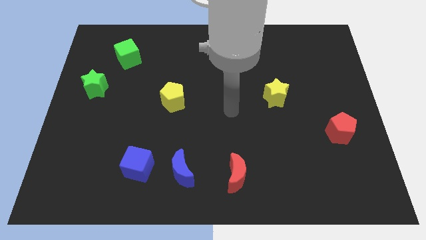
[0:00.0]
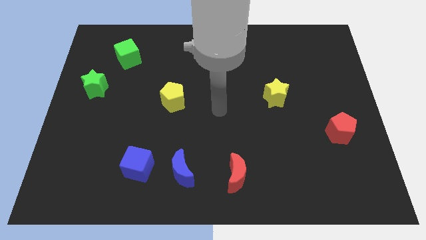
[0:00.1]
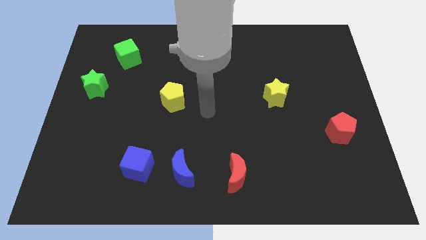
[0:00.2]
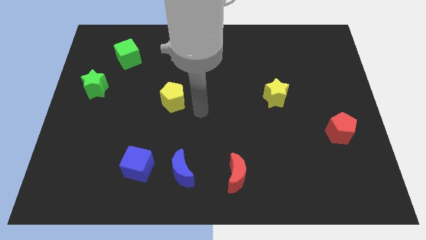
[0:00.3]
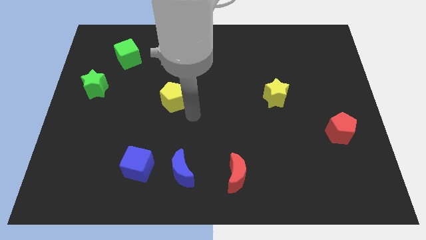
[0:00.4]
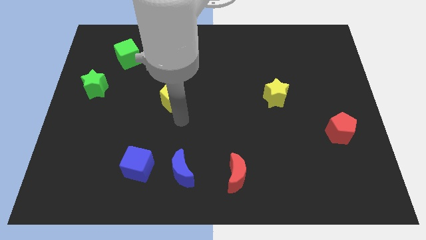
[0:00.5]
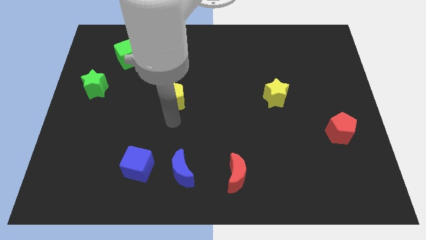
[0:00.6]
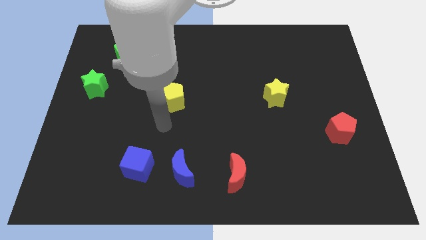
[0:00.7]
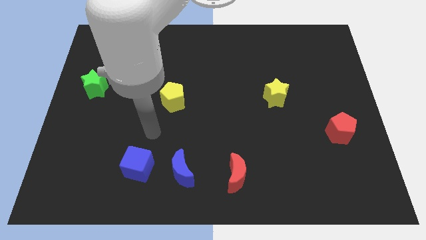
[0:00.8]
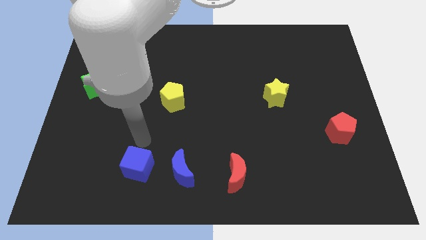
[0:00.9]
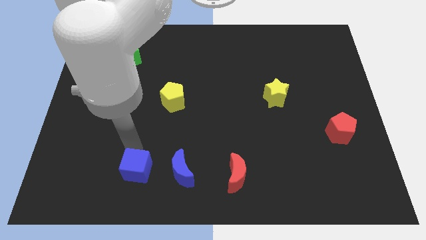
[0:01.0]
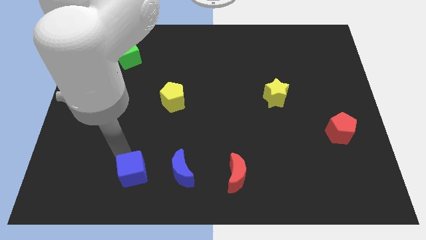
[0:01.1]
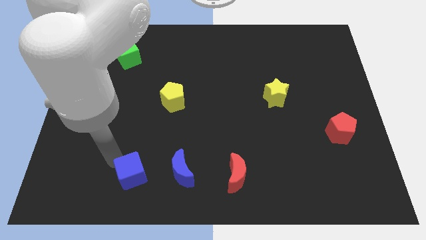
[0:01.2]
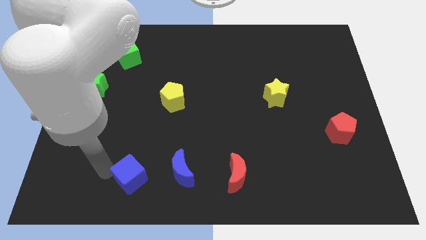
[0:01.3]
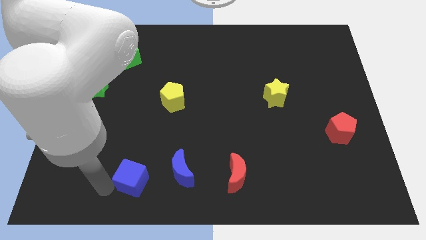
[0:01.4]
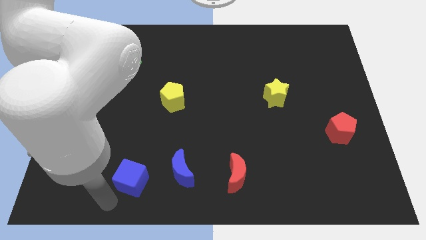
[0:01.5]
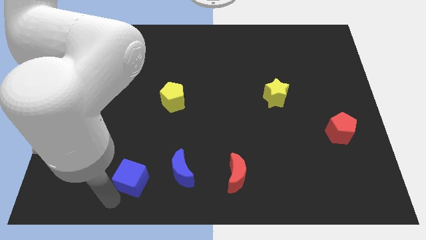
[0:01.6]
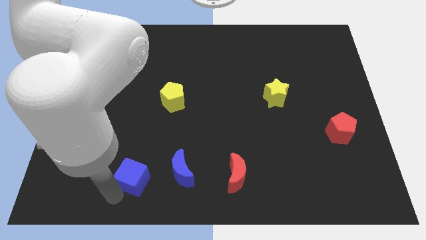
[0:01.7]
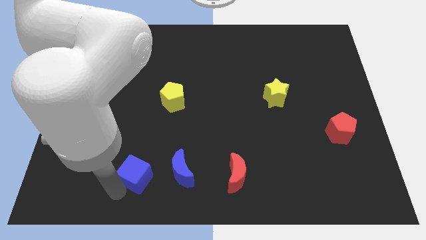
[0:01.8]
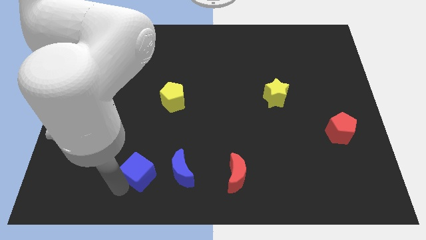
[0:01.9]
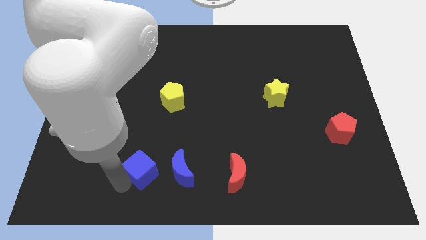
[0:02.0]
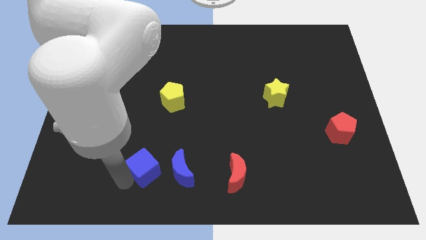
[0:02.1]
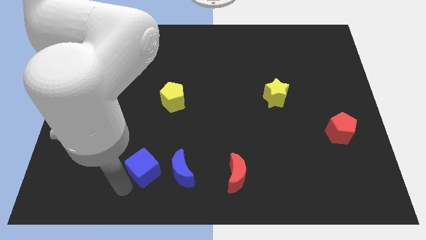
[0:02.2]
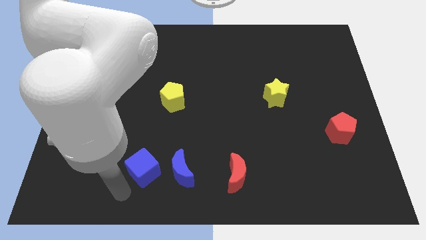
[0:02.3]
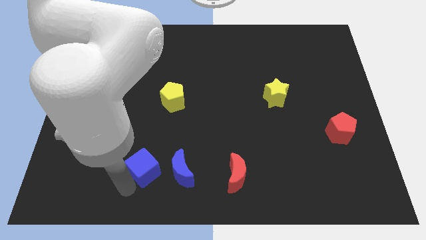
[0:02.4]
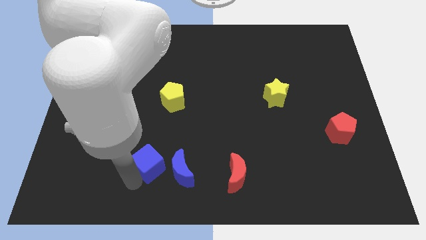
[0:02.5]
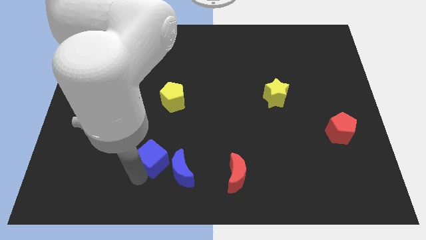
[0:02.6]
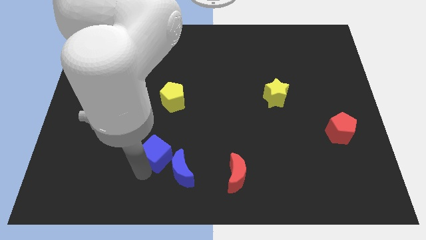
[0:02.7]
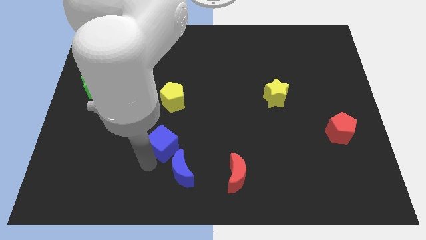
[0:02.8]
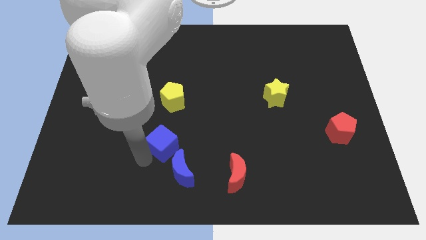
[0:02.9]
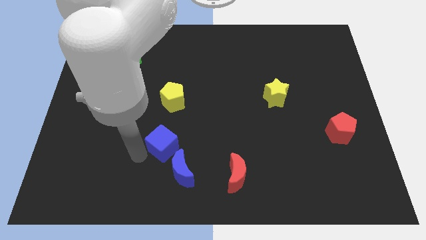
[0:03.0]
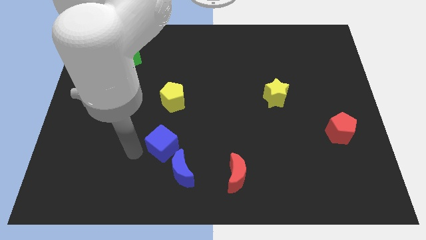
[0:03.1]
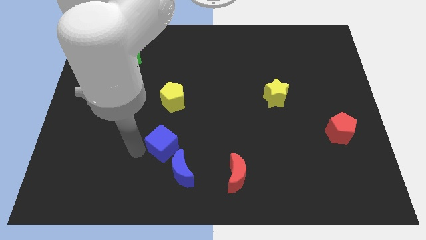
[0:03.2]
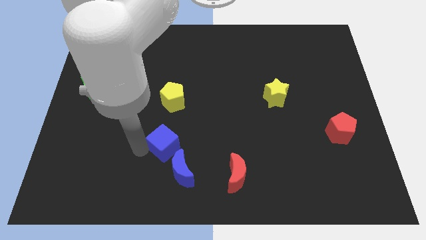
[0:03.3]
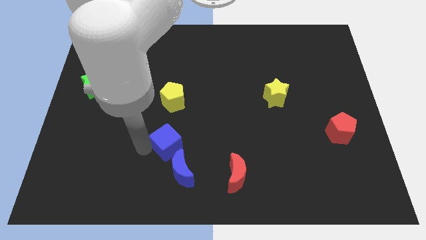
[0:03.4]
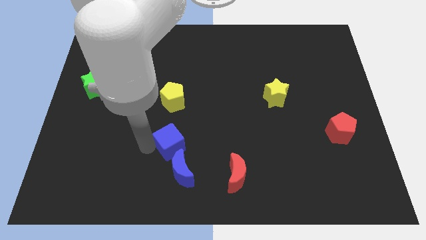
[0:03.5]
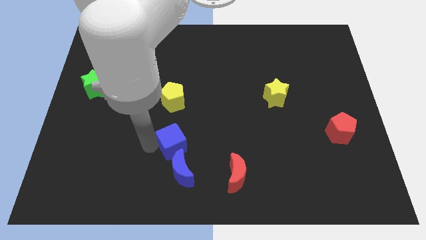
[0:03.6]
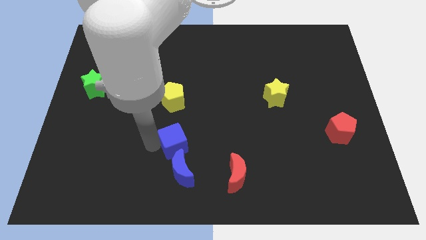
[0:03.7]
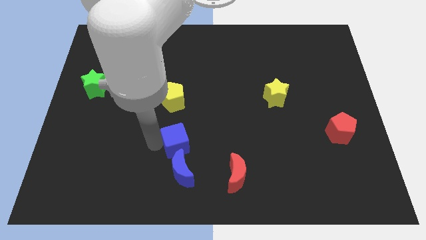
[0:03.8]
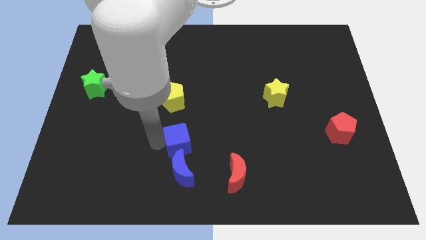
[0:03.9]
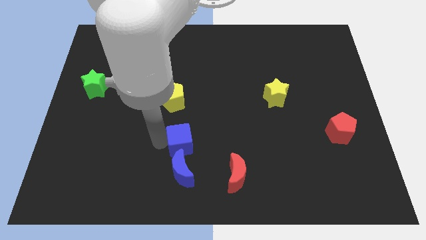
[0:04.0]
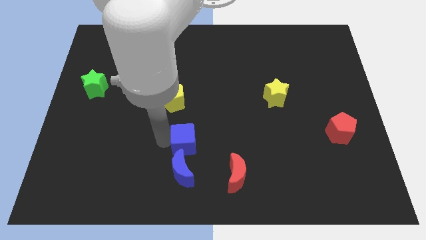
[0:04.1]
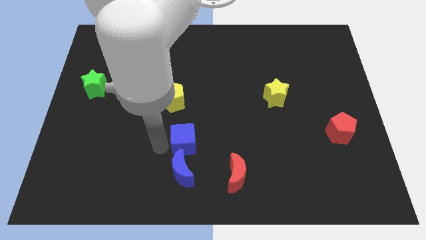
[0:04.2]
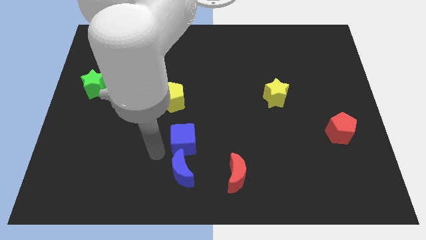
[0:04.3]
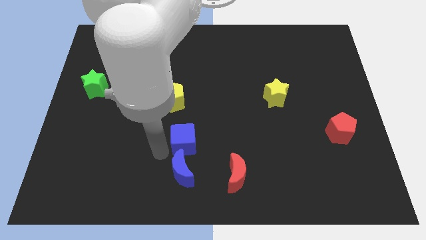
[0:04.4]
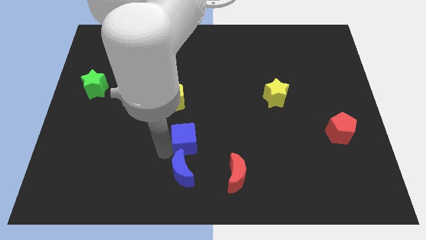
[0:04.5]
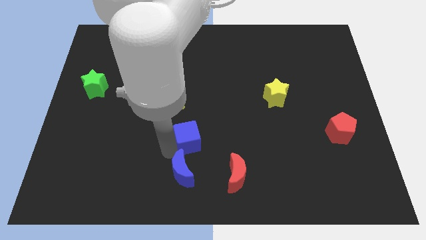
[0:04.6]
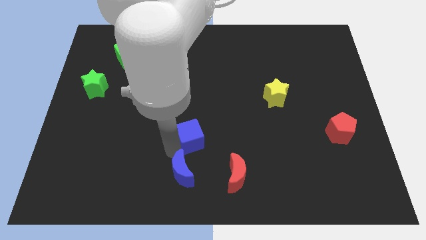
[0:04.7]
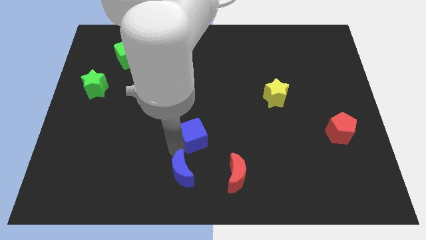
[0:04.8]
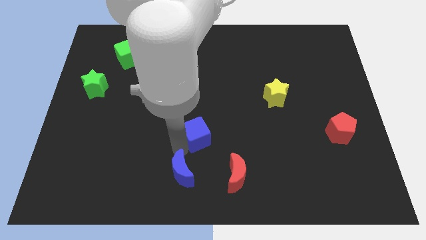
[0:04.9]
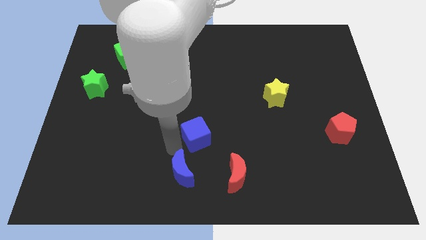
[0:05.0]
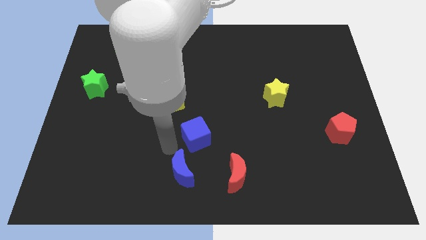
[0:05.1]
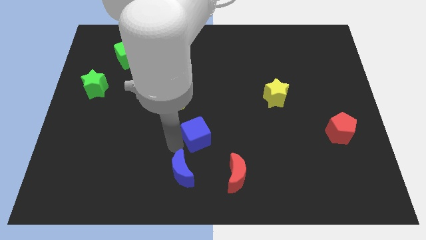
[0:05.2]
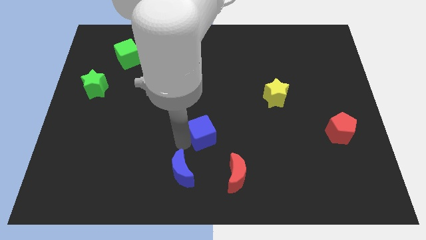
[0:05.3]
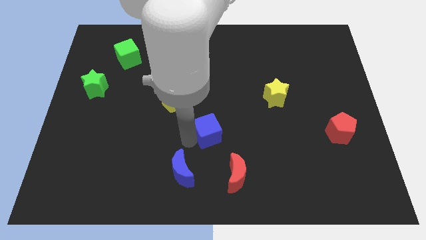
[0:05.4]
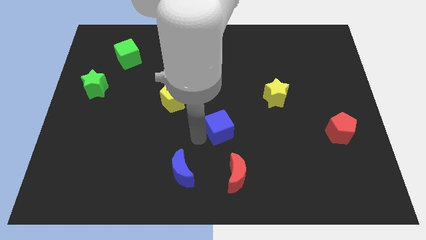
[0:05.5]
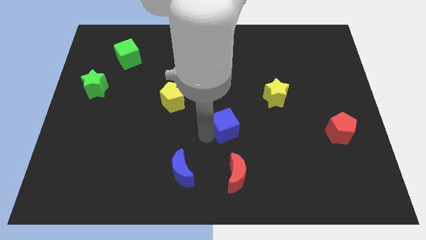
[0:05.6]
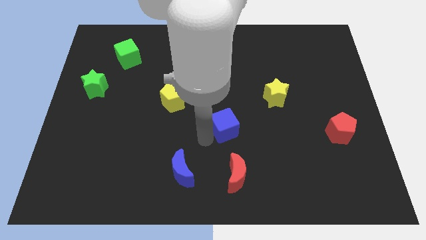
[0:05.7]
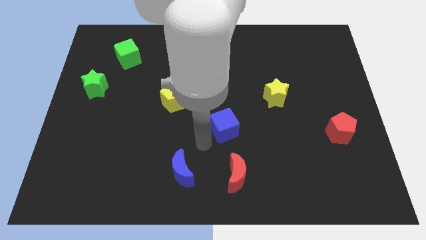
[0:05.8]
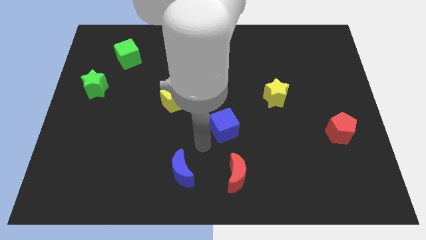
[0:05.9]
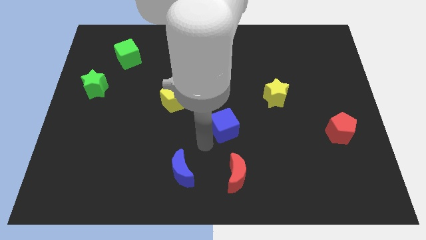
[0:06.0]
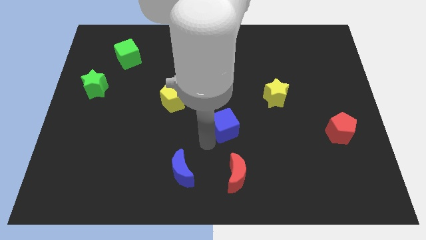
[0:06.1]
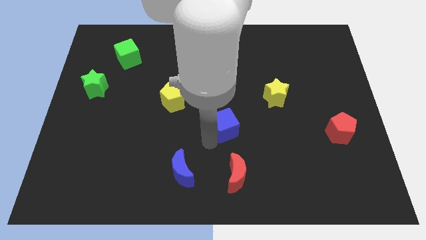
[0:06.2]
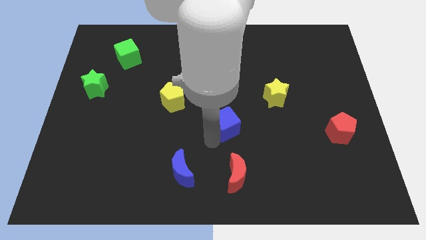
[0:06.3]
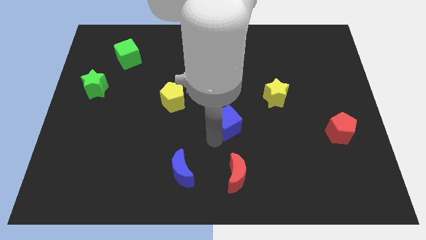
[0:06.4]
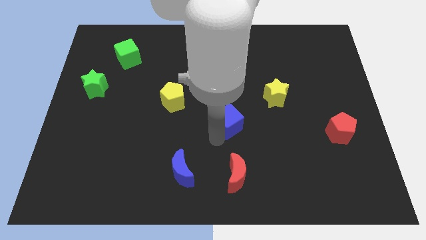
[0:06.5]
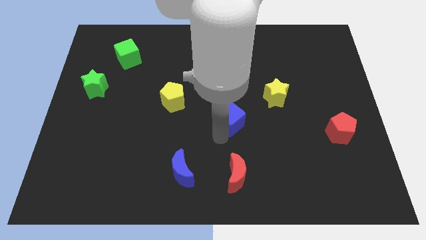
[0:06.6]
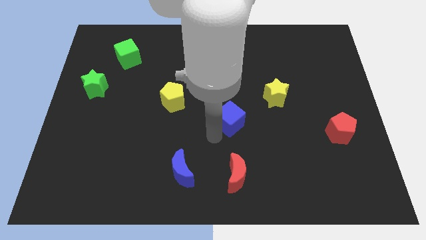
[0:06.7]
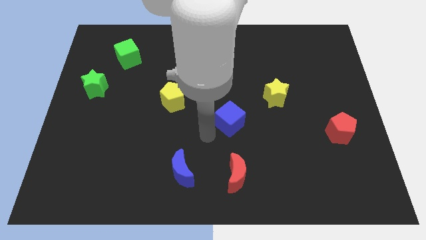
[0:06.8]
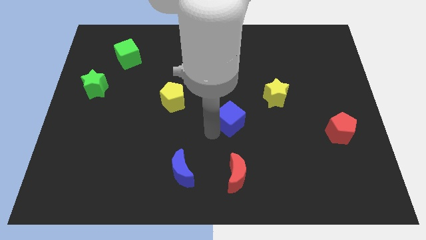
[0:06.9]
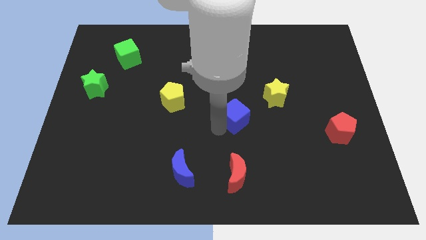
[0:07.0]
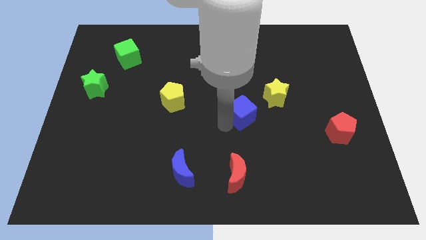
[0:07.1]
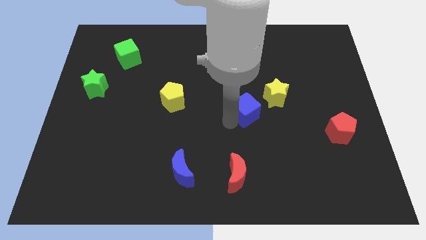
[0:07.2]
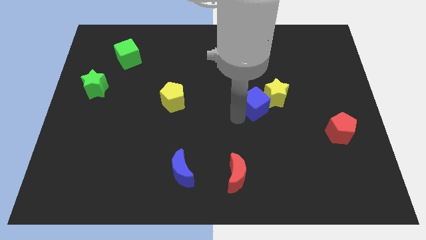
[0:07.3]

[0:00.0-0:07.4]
put the blue cube to the yellow star

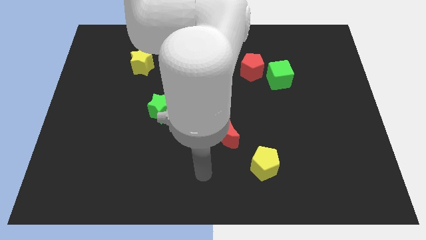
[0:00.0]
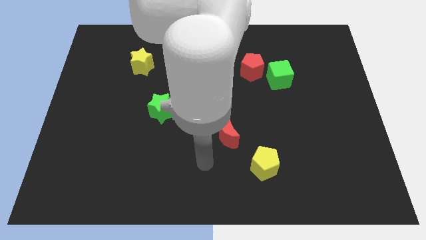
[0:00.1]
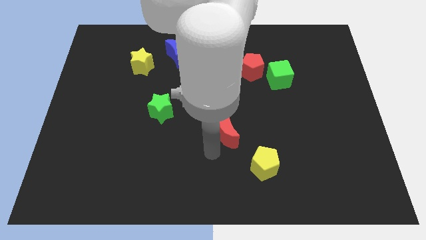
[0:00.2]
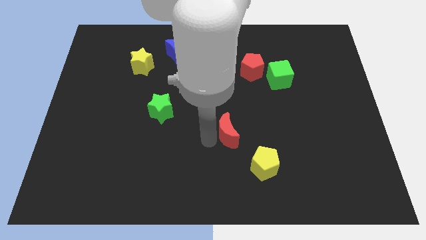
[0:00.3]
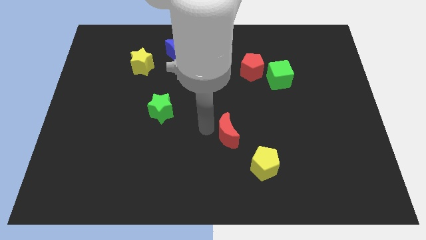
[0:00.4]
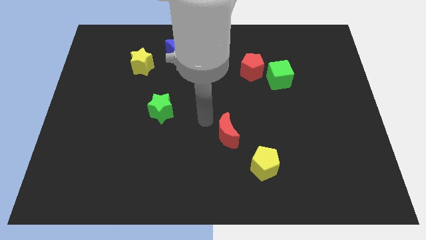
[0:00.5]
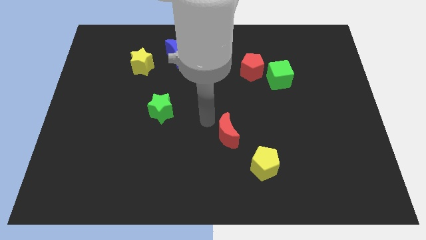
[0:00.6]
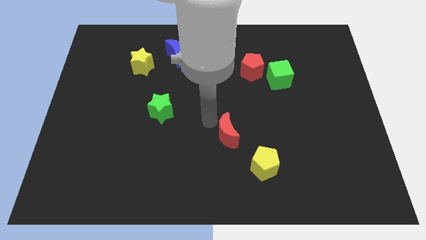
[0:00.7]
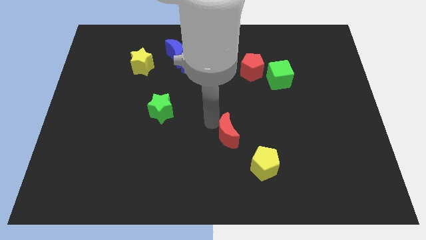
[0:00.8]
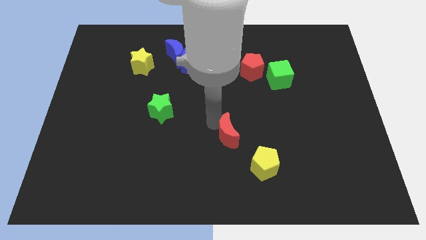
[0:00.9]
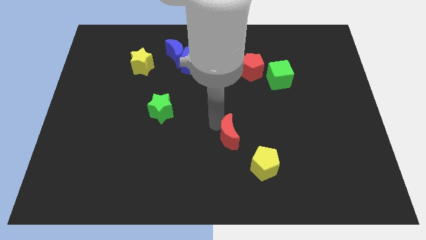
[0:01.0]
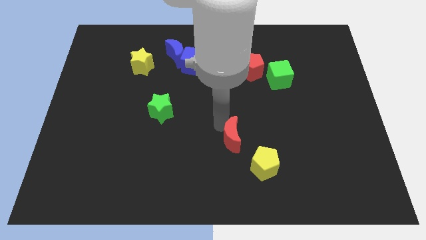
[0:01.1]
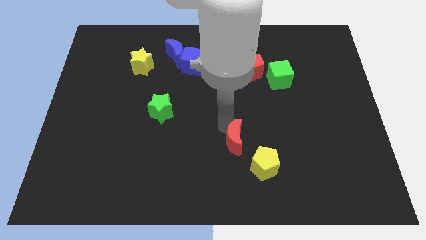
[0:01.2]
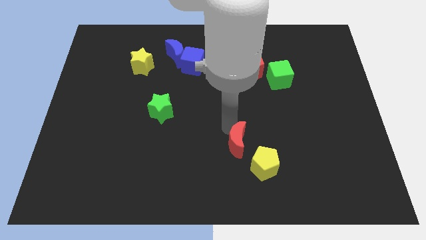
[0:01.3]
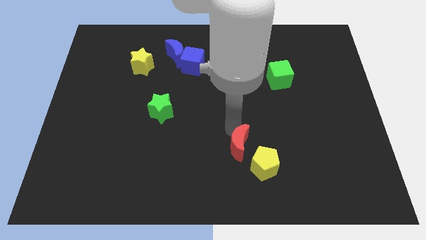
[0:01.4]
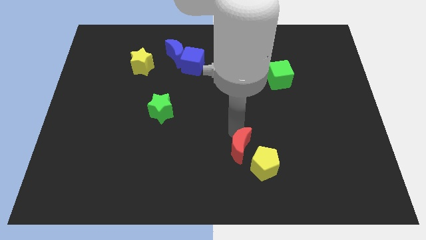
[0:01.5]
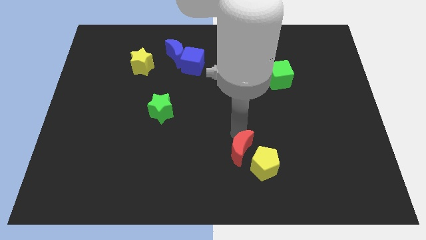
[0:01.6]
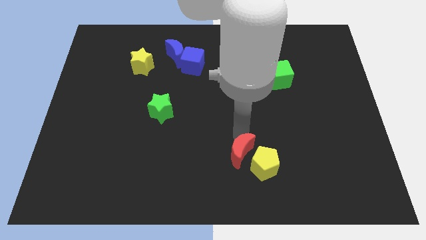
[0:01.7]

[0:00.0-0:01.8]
slide the red moon towards the yellow pentagon
